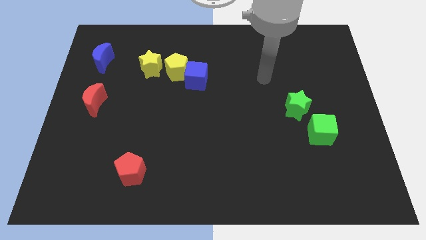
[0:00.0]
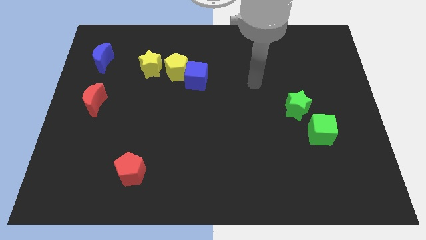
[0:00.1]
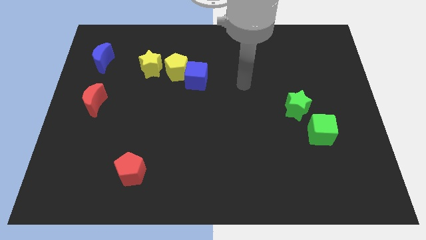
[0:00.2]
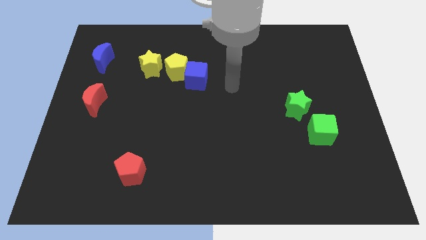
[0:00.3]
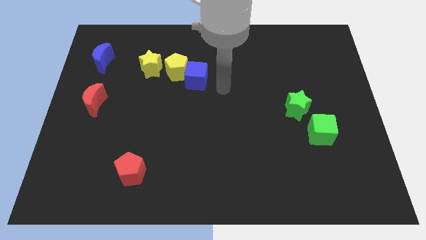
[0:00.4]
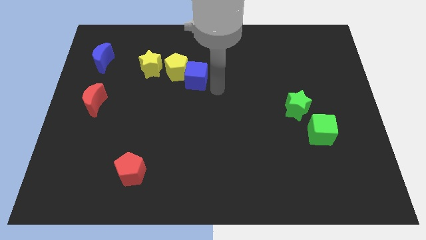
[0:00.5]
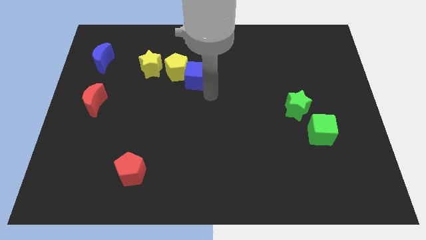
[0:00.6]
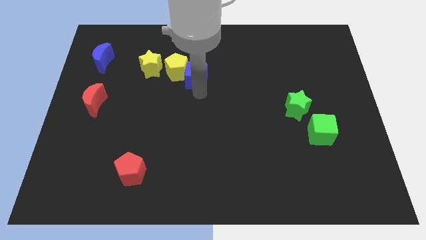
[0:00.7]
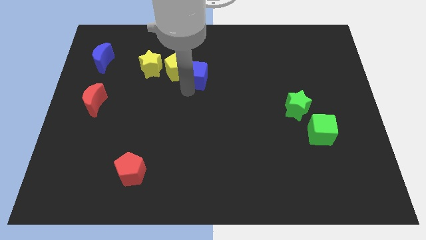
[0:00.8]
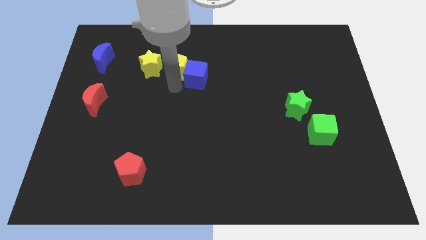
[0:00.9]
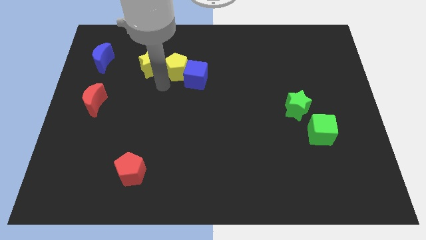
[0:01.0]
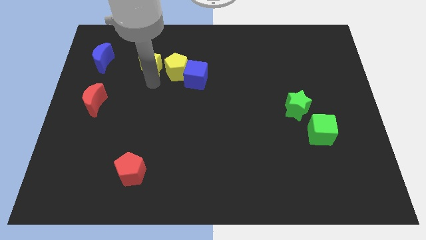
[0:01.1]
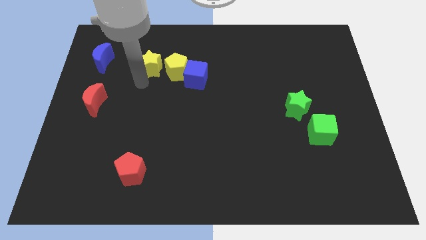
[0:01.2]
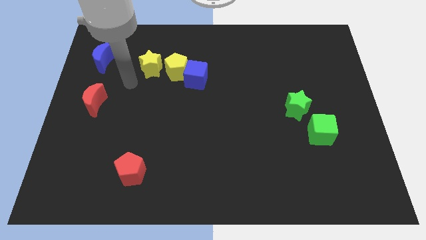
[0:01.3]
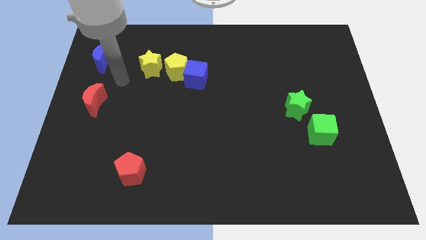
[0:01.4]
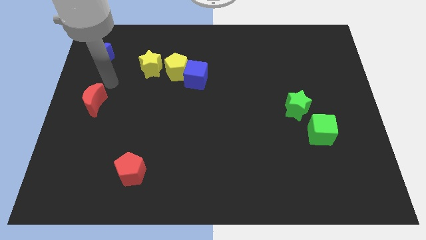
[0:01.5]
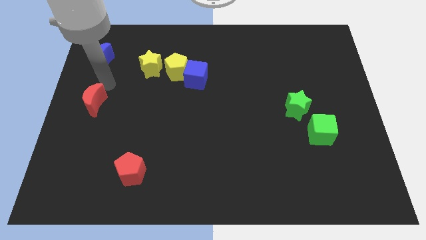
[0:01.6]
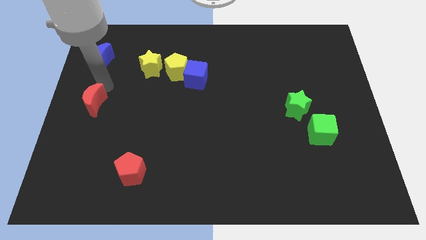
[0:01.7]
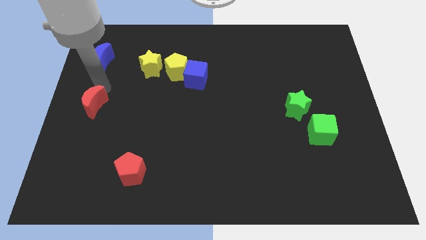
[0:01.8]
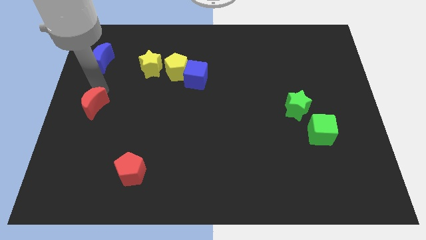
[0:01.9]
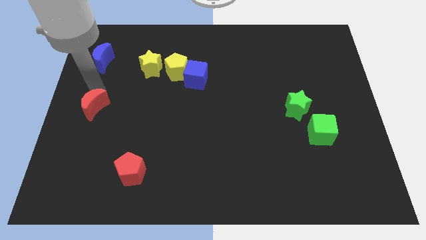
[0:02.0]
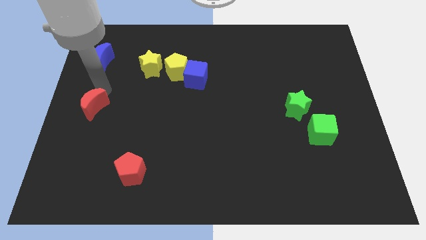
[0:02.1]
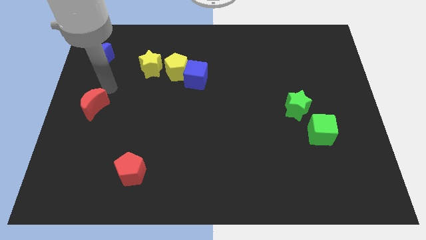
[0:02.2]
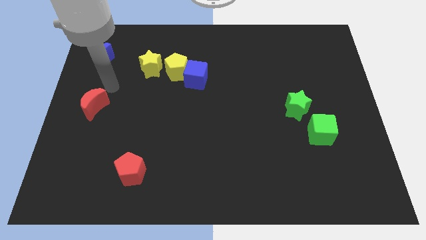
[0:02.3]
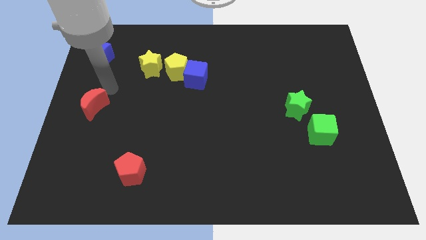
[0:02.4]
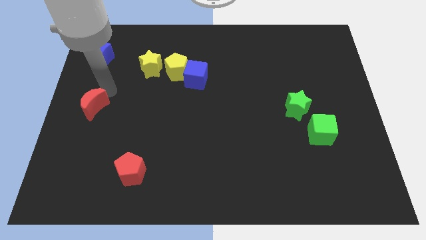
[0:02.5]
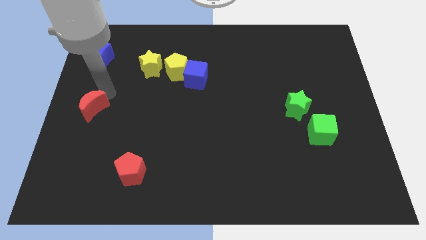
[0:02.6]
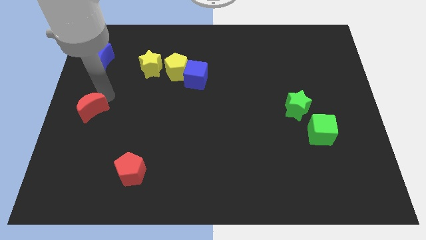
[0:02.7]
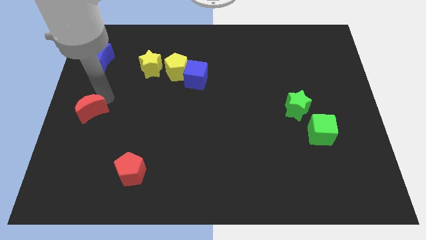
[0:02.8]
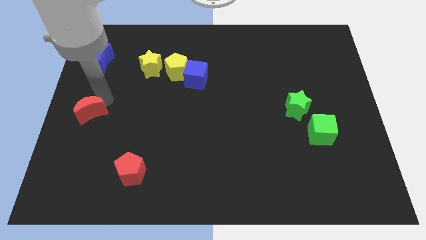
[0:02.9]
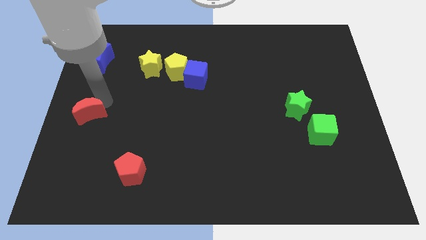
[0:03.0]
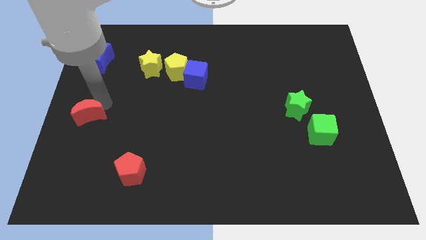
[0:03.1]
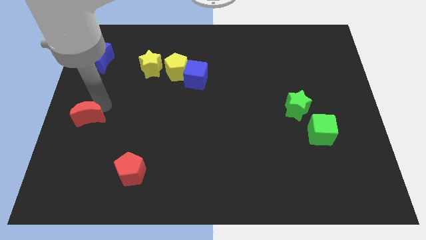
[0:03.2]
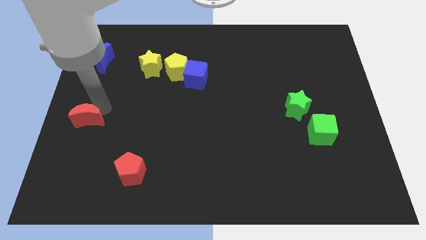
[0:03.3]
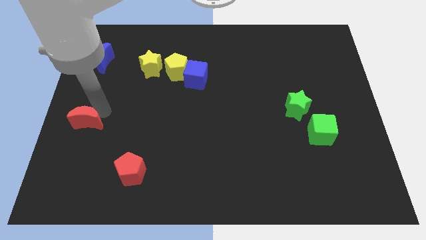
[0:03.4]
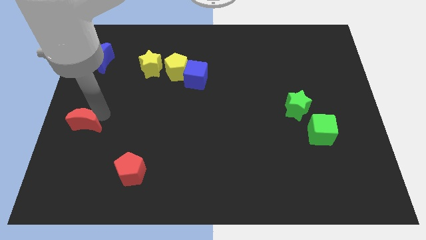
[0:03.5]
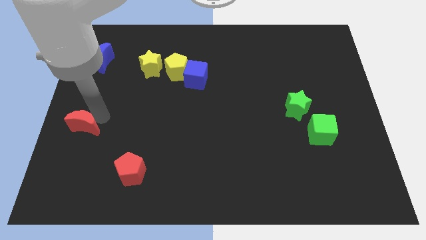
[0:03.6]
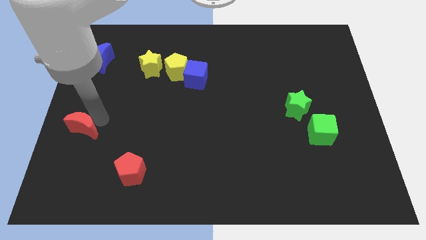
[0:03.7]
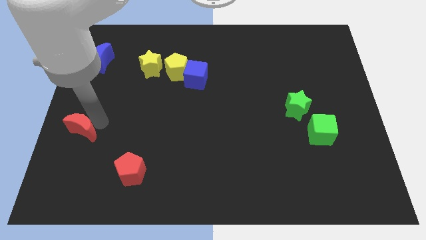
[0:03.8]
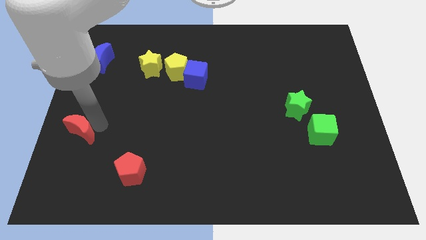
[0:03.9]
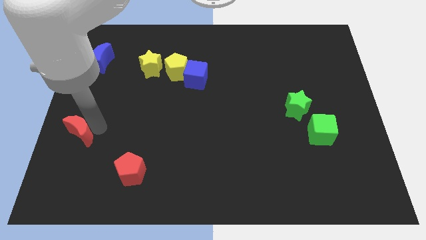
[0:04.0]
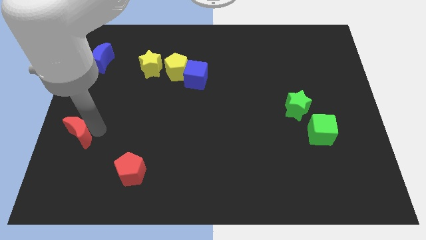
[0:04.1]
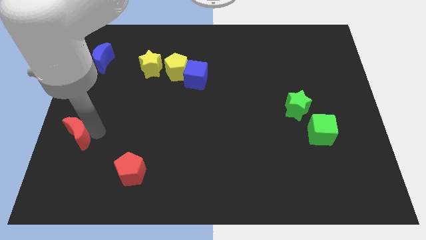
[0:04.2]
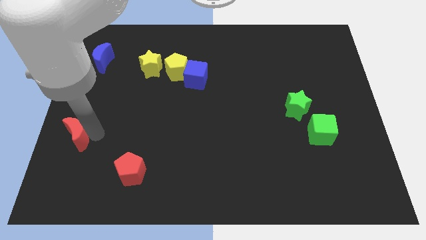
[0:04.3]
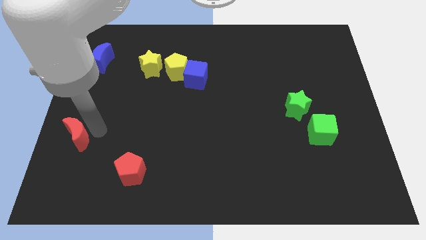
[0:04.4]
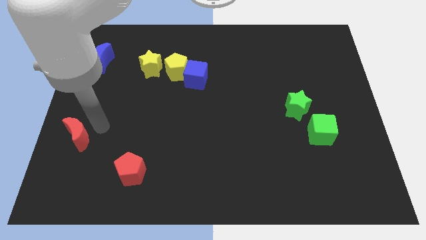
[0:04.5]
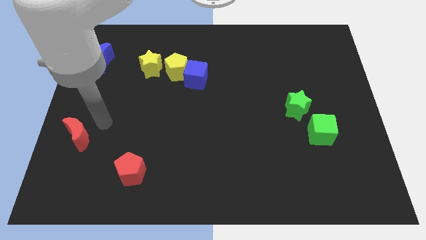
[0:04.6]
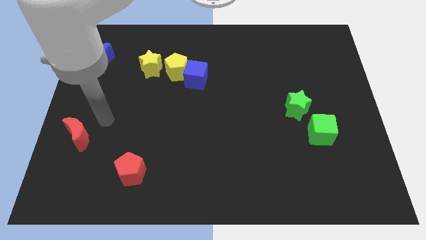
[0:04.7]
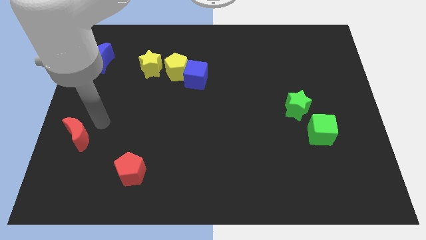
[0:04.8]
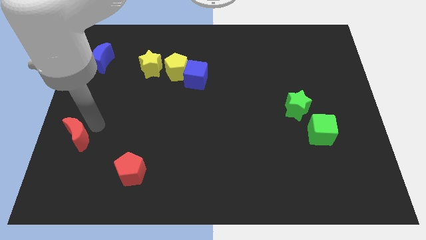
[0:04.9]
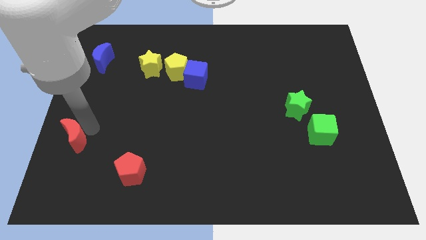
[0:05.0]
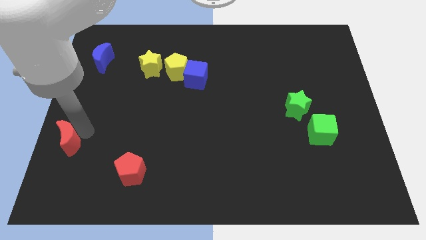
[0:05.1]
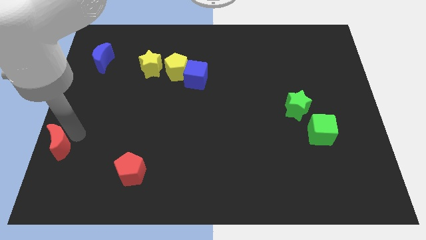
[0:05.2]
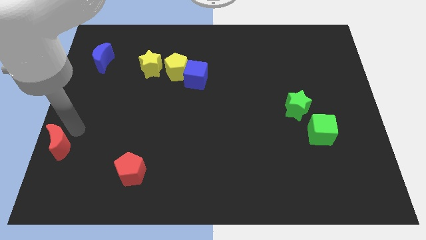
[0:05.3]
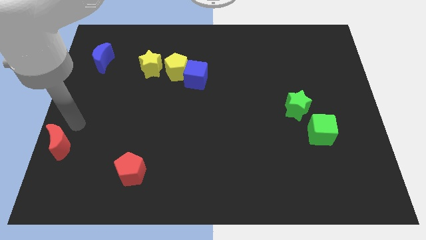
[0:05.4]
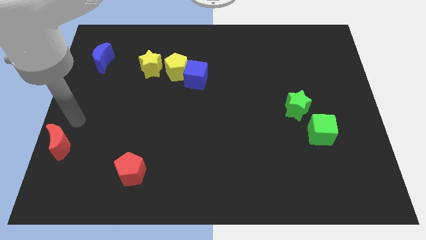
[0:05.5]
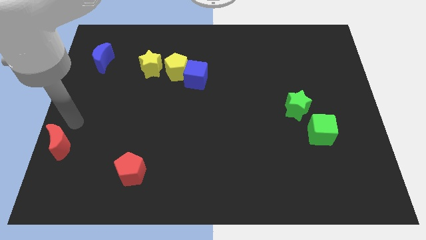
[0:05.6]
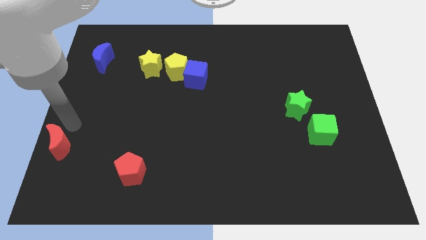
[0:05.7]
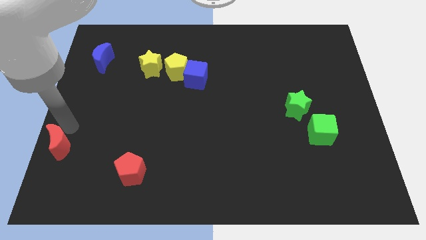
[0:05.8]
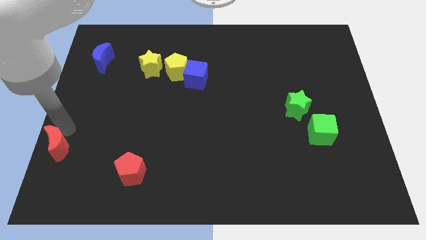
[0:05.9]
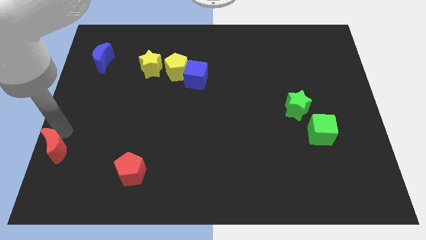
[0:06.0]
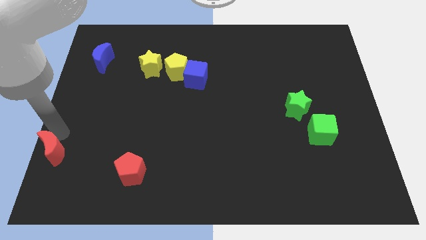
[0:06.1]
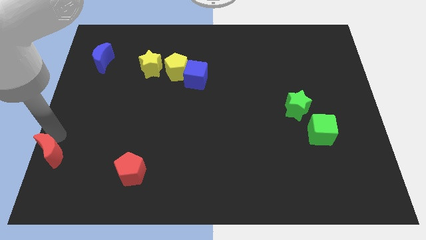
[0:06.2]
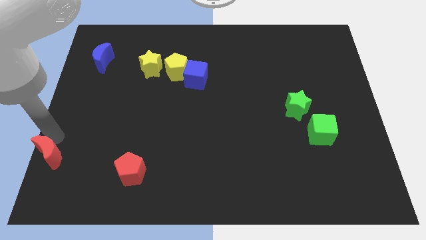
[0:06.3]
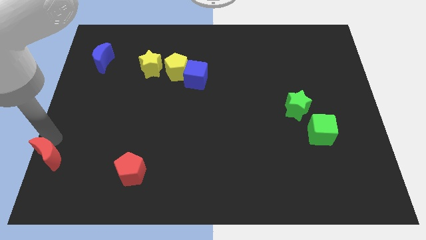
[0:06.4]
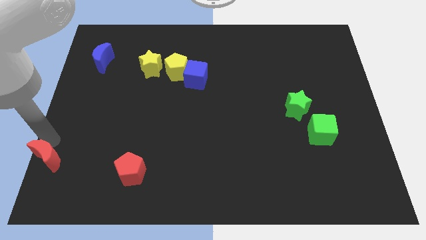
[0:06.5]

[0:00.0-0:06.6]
move the red moon to the bottom left corner
